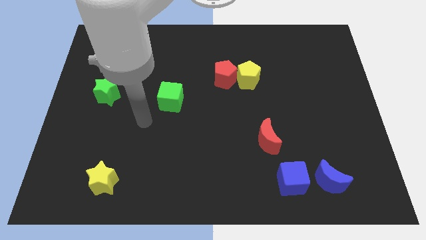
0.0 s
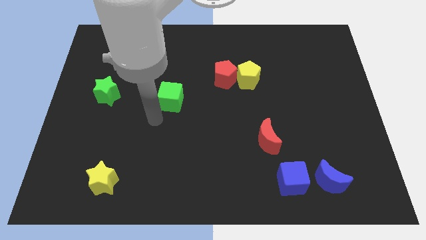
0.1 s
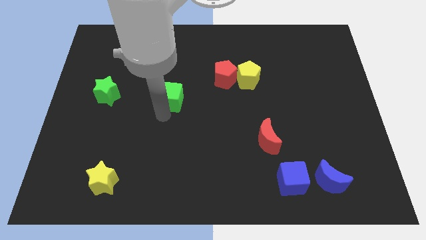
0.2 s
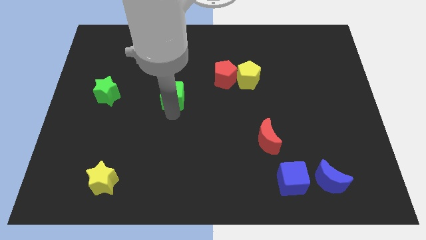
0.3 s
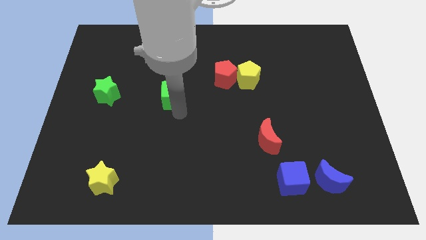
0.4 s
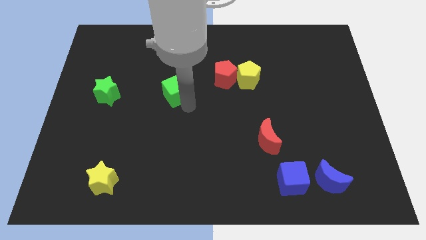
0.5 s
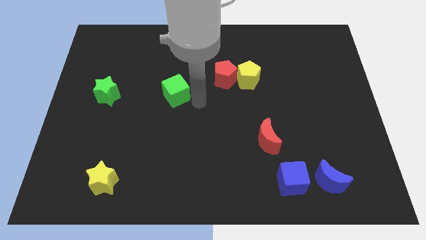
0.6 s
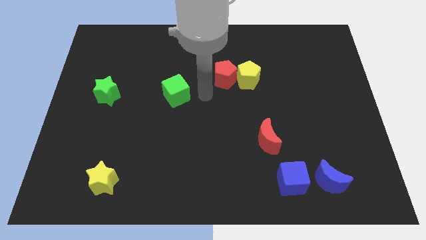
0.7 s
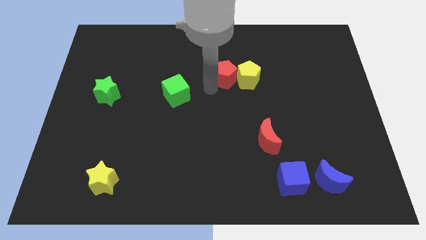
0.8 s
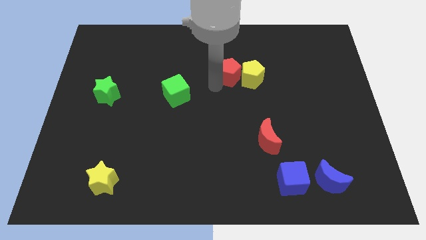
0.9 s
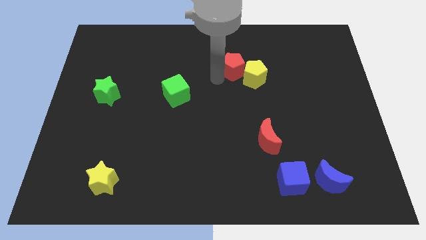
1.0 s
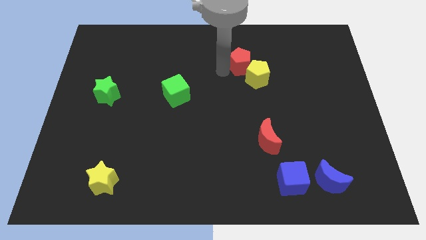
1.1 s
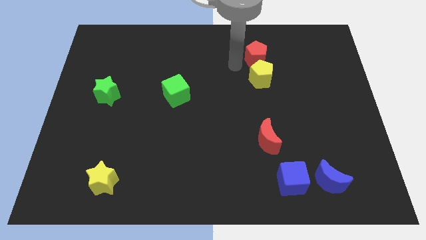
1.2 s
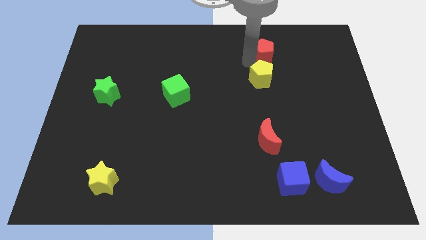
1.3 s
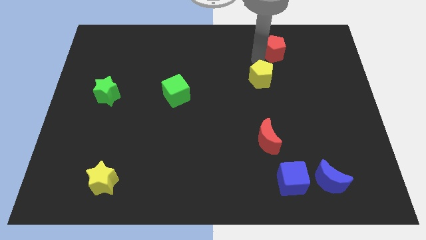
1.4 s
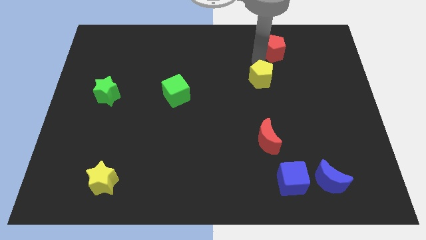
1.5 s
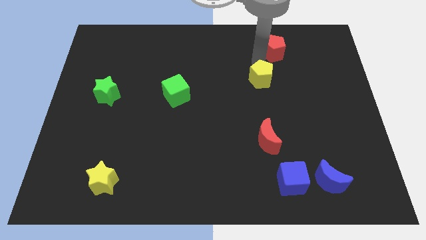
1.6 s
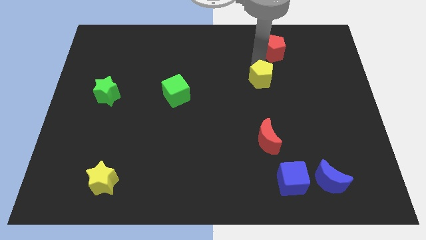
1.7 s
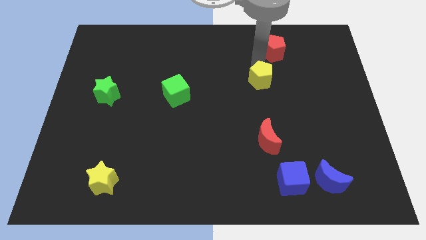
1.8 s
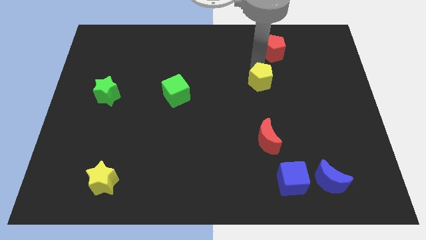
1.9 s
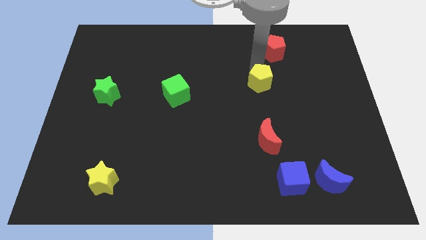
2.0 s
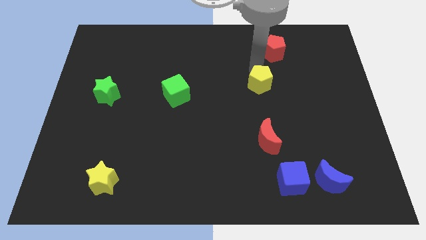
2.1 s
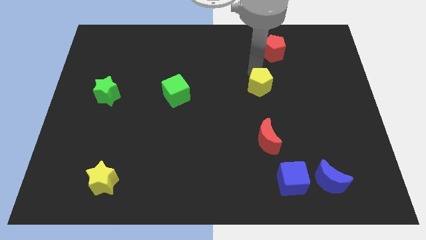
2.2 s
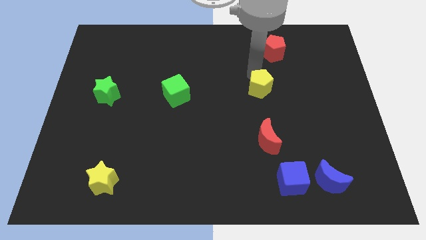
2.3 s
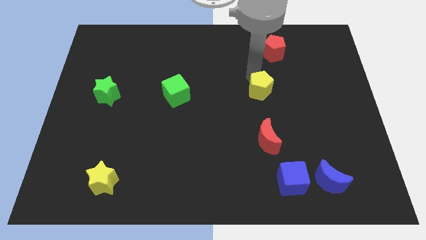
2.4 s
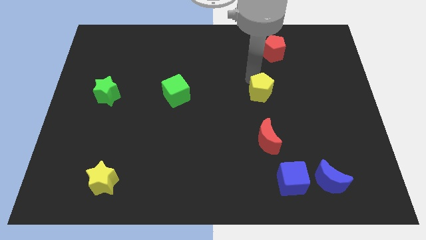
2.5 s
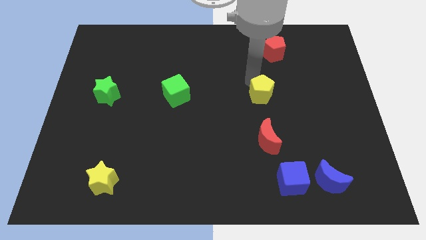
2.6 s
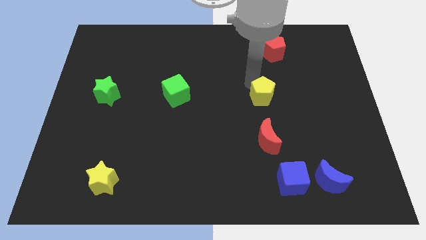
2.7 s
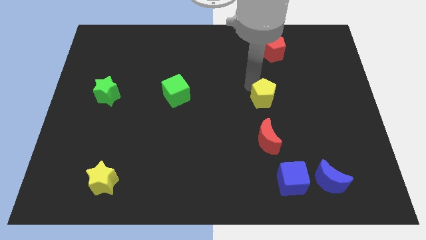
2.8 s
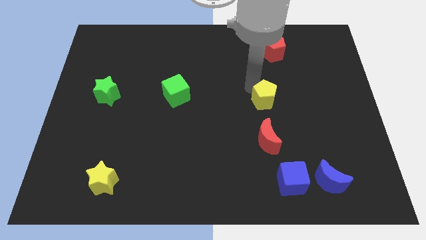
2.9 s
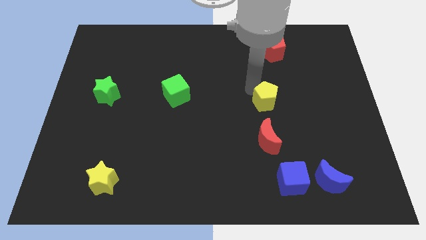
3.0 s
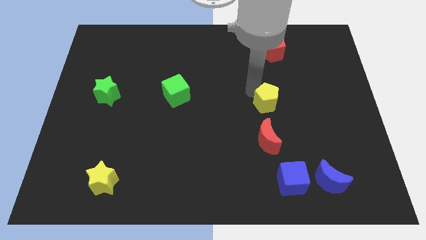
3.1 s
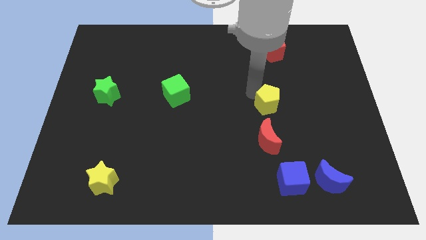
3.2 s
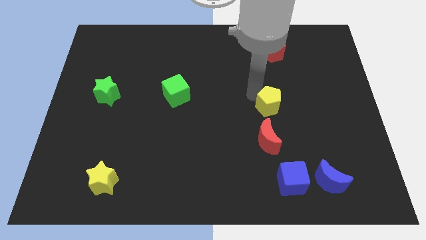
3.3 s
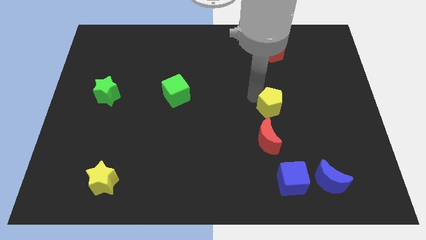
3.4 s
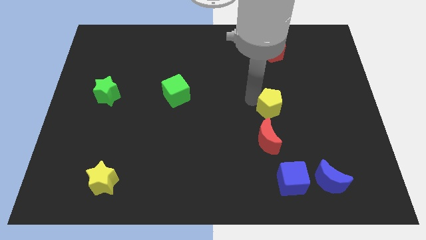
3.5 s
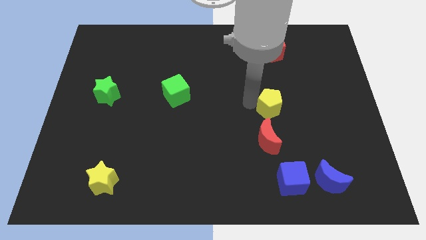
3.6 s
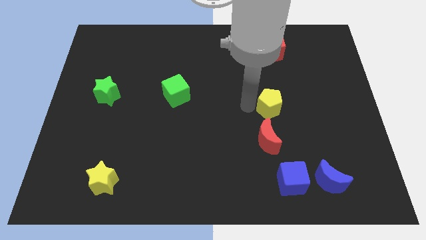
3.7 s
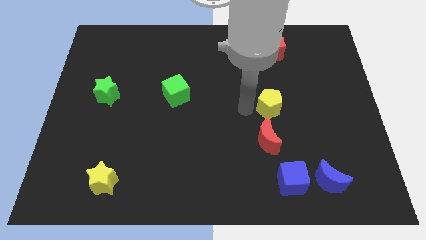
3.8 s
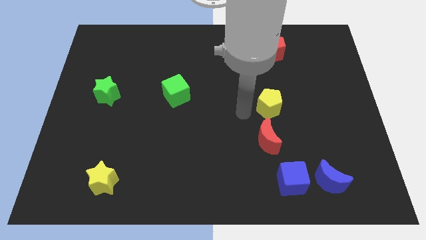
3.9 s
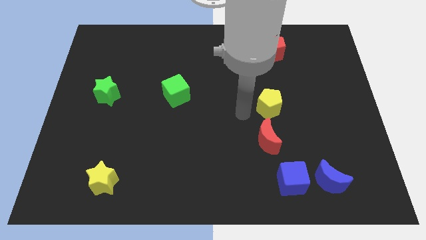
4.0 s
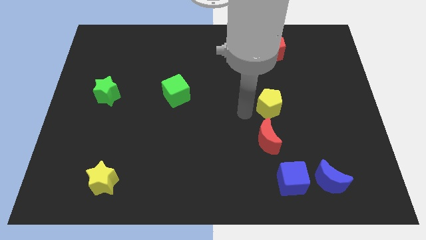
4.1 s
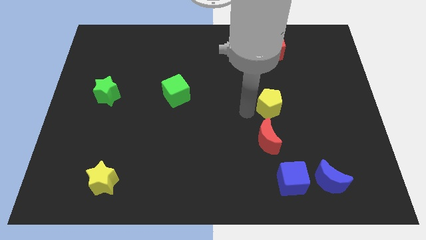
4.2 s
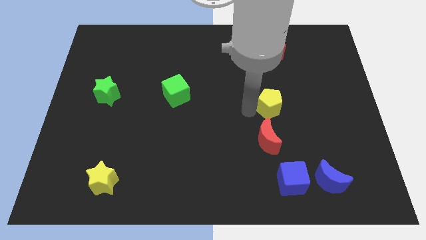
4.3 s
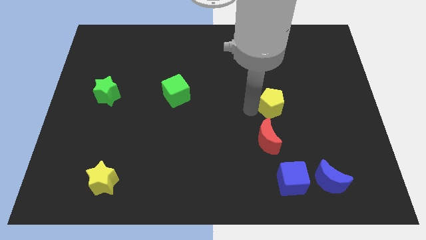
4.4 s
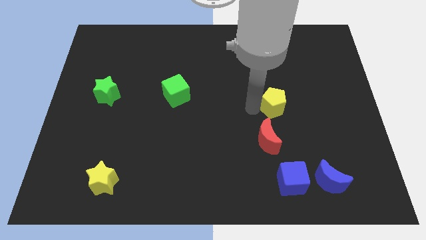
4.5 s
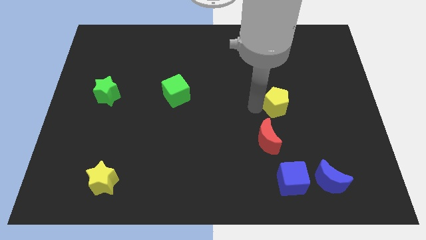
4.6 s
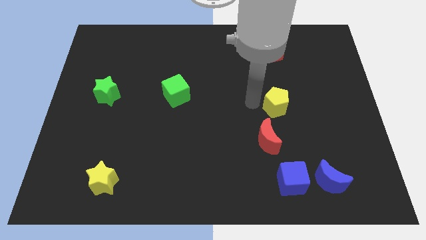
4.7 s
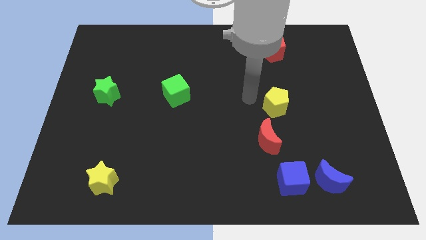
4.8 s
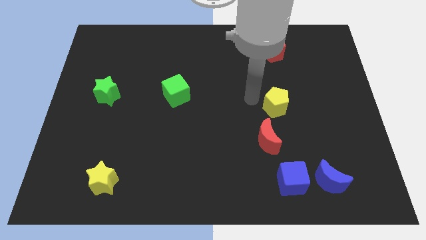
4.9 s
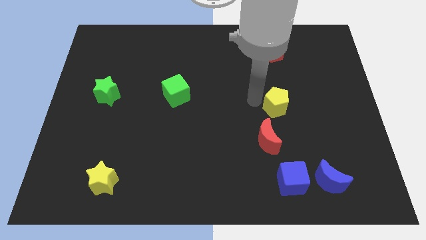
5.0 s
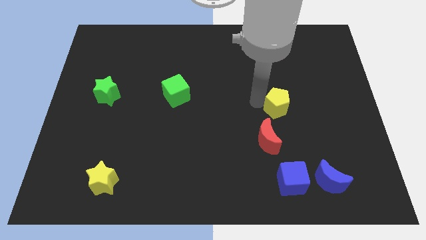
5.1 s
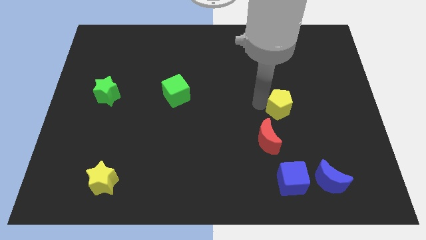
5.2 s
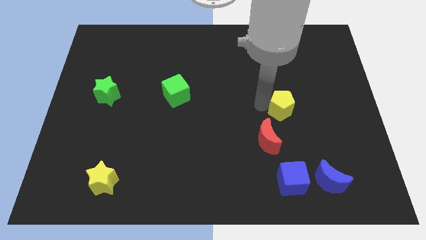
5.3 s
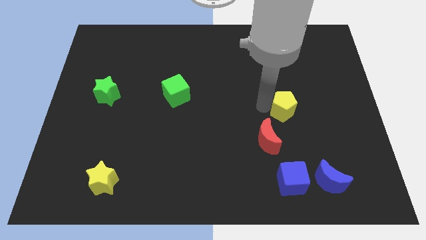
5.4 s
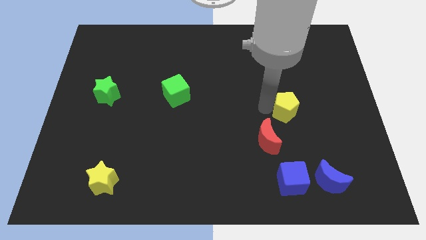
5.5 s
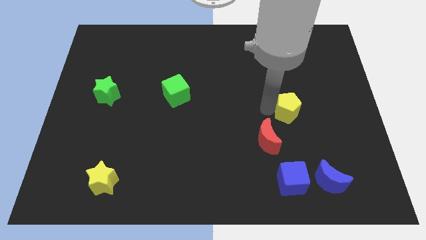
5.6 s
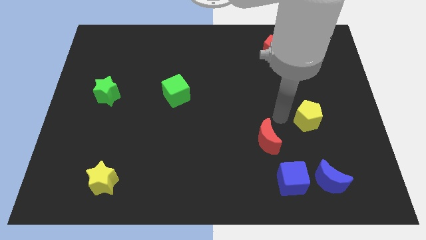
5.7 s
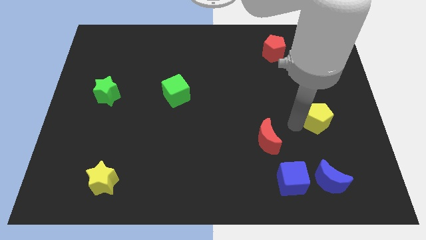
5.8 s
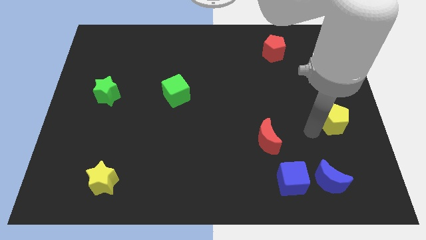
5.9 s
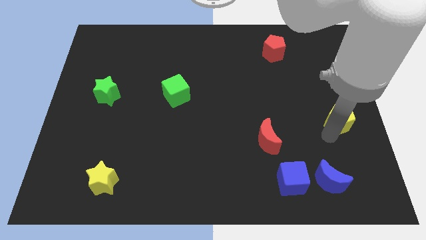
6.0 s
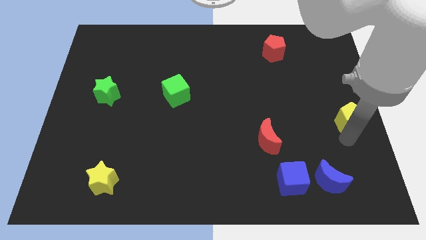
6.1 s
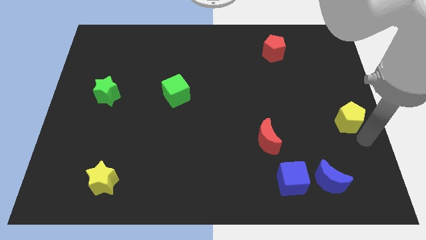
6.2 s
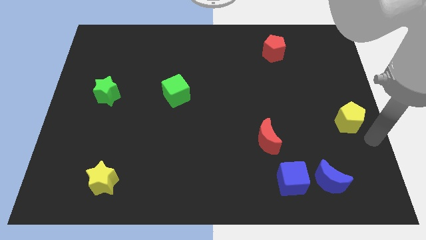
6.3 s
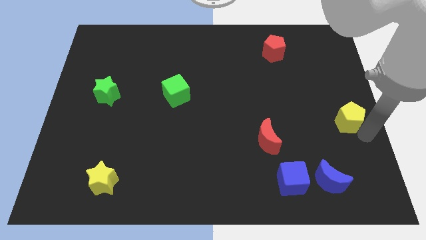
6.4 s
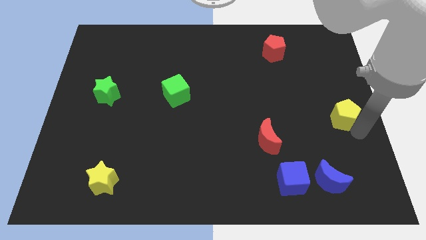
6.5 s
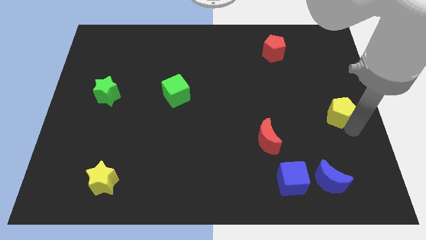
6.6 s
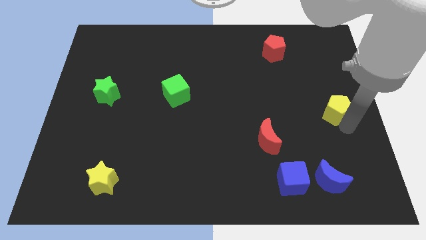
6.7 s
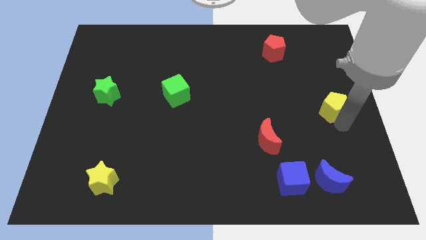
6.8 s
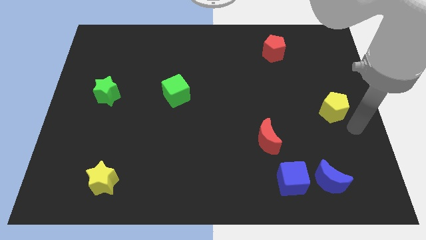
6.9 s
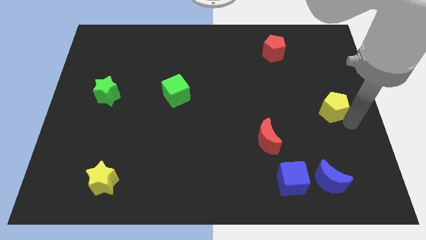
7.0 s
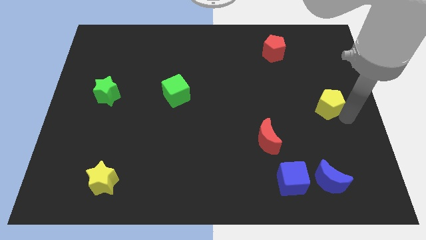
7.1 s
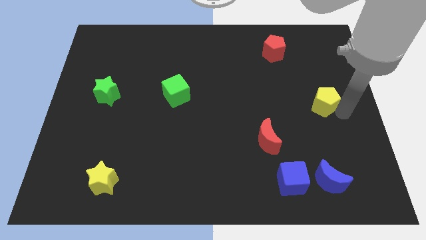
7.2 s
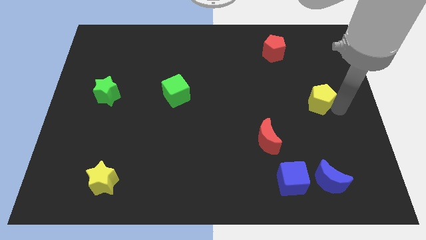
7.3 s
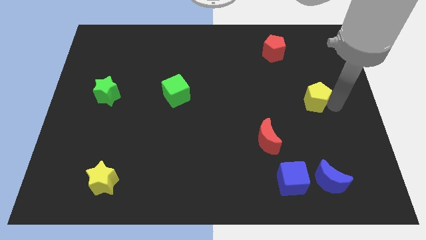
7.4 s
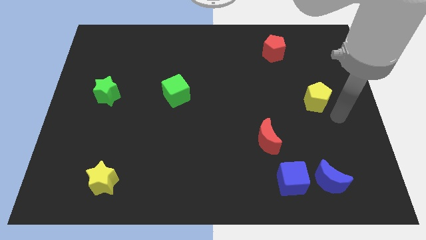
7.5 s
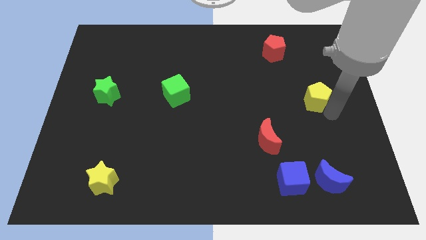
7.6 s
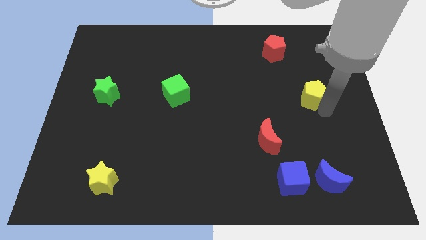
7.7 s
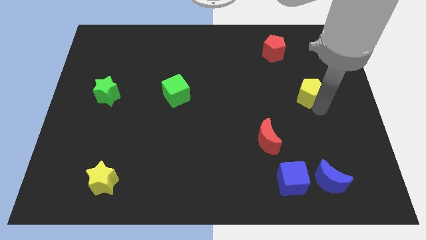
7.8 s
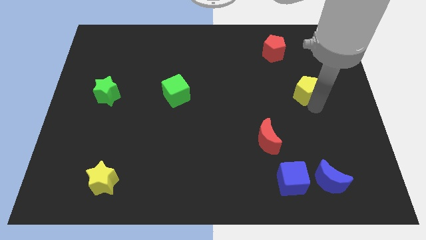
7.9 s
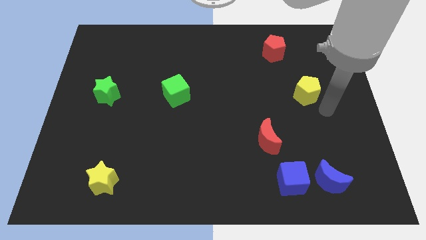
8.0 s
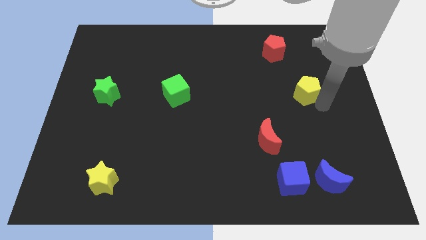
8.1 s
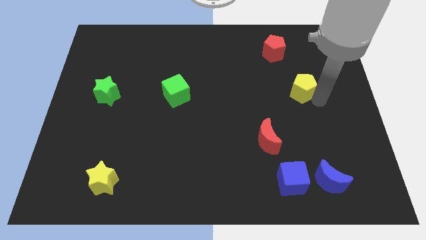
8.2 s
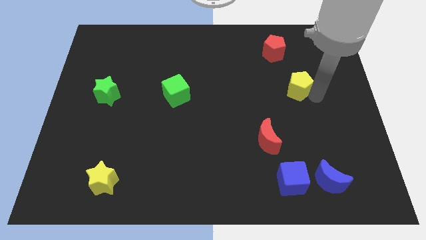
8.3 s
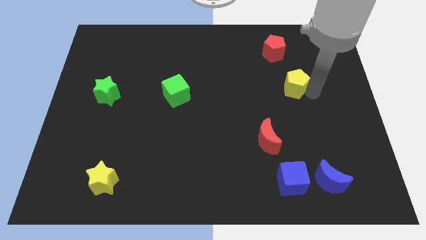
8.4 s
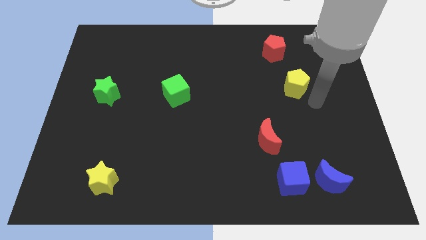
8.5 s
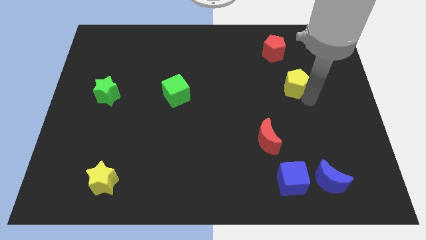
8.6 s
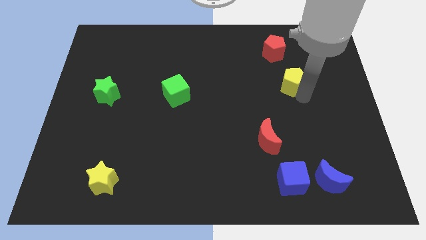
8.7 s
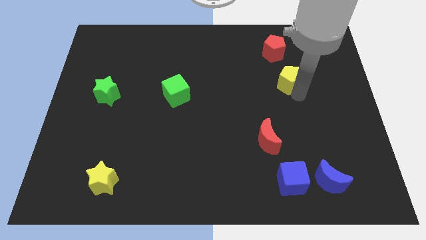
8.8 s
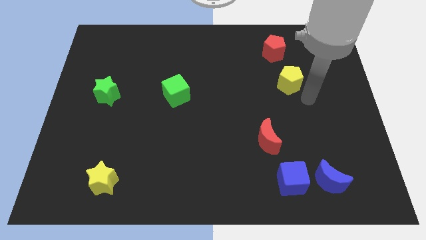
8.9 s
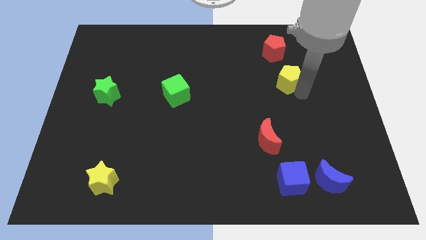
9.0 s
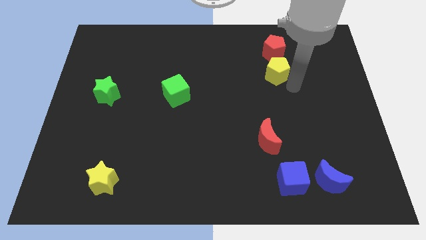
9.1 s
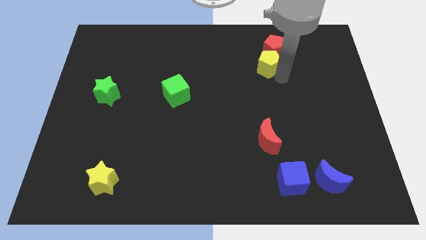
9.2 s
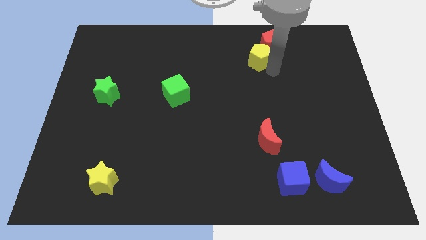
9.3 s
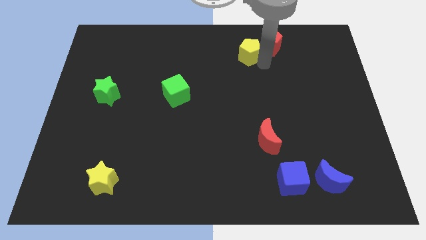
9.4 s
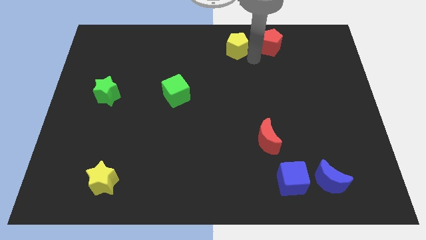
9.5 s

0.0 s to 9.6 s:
move the yellow pentagon to the towards your base
